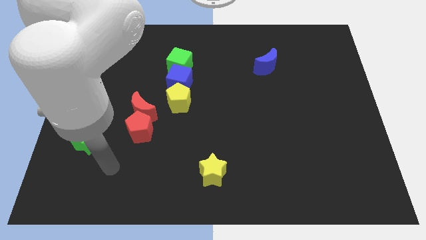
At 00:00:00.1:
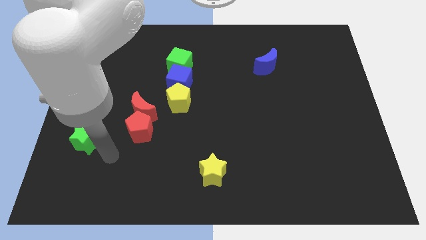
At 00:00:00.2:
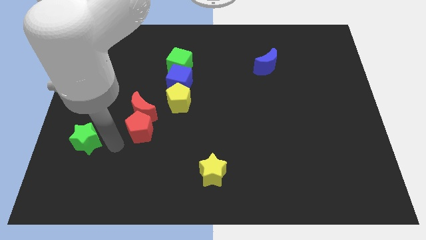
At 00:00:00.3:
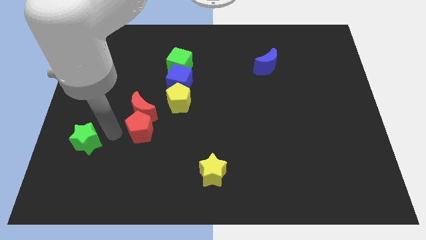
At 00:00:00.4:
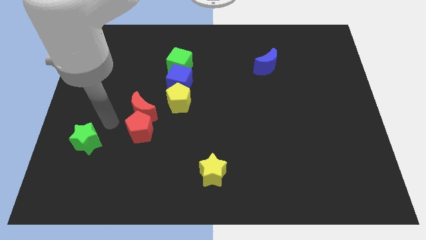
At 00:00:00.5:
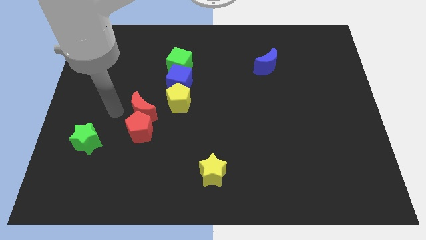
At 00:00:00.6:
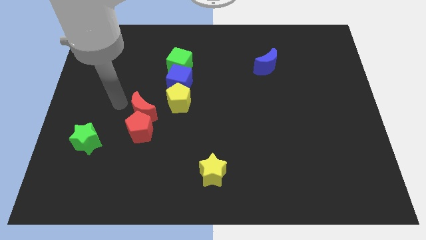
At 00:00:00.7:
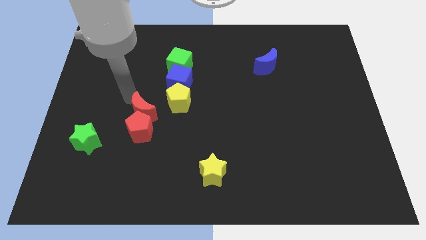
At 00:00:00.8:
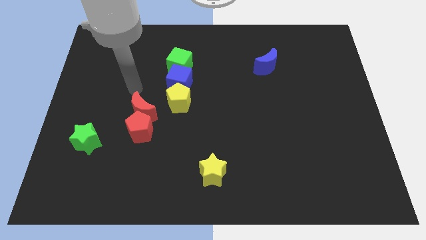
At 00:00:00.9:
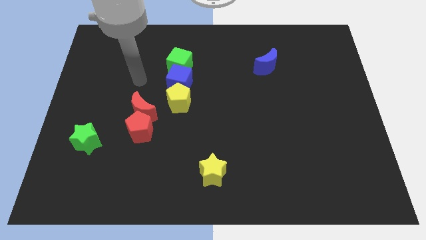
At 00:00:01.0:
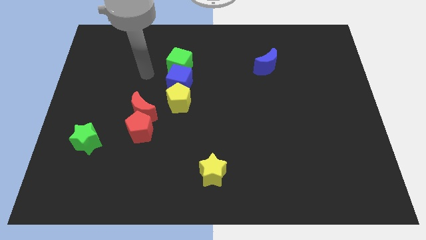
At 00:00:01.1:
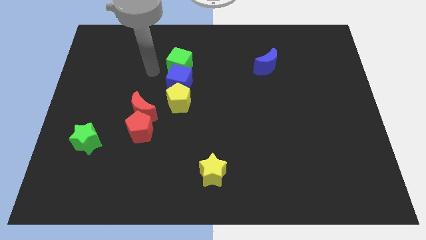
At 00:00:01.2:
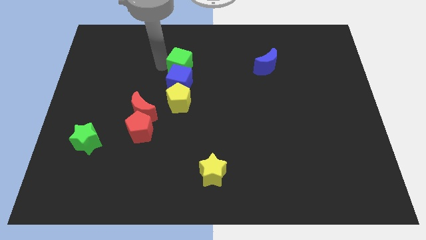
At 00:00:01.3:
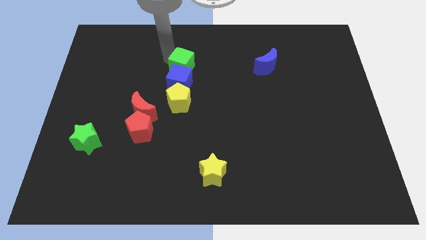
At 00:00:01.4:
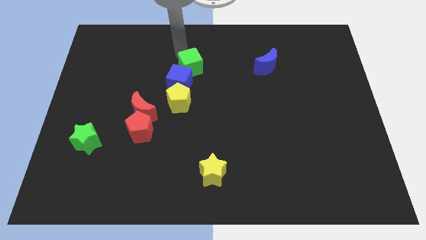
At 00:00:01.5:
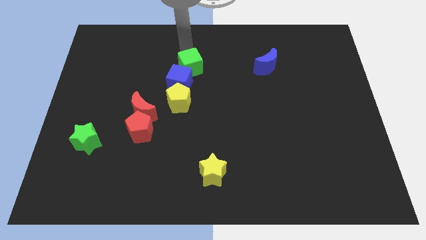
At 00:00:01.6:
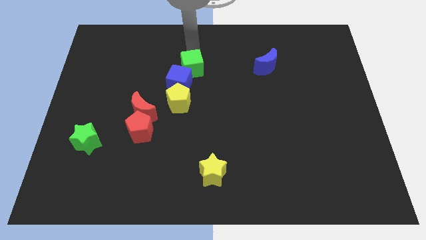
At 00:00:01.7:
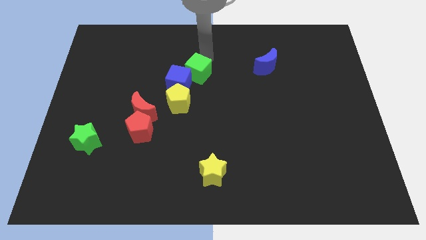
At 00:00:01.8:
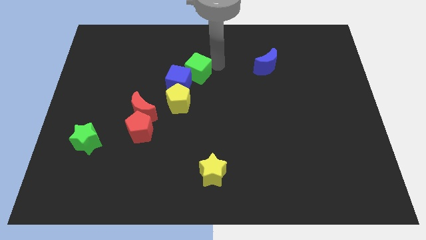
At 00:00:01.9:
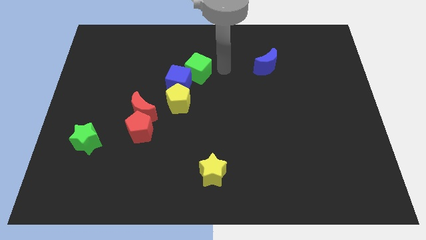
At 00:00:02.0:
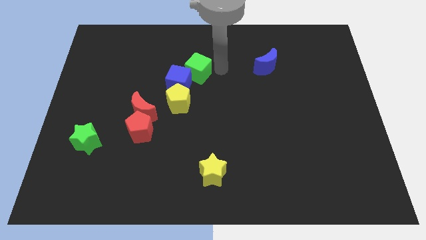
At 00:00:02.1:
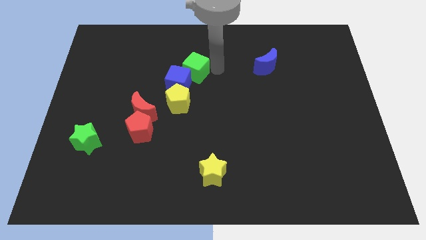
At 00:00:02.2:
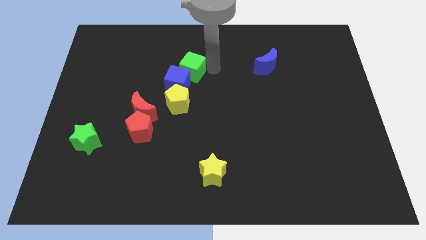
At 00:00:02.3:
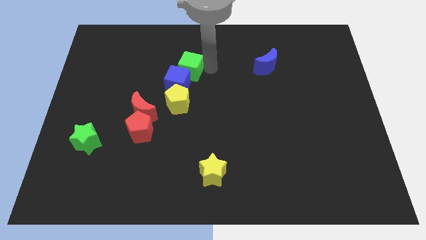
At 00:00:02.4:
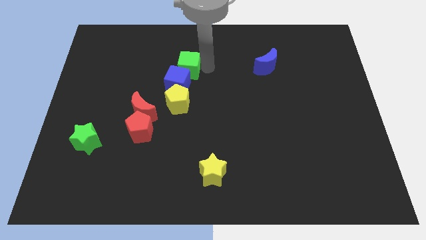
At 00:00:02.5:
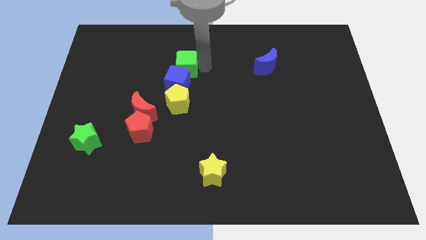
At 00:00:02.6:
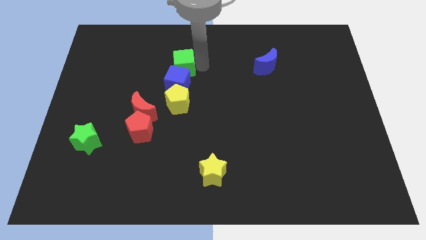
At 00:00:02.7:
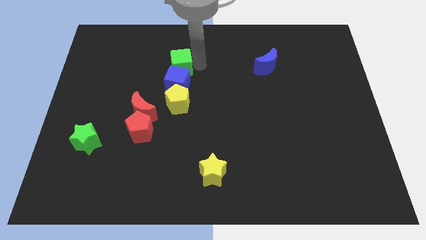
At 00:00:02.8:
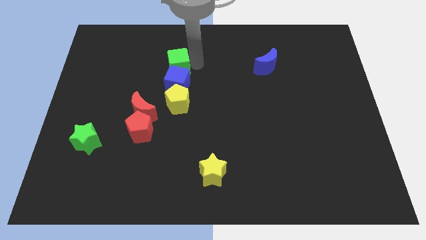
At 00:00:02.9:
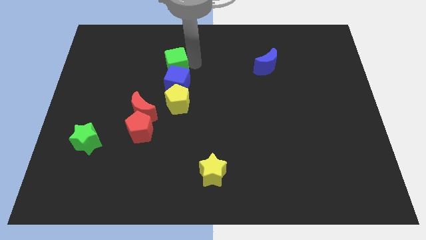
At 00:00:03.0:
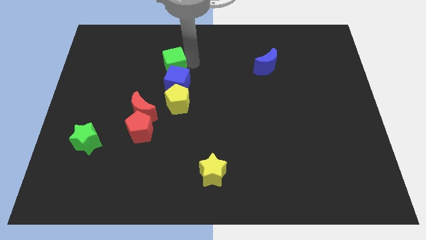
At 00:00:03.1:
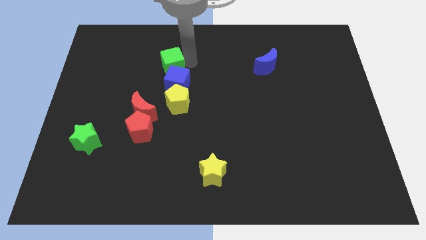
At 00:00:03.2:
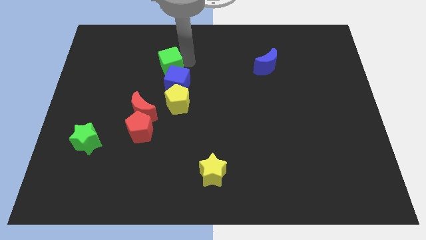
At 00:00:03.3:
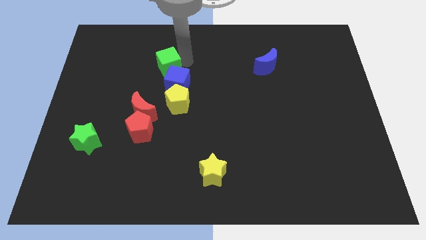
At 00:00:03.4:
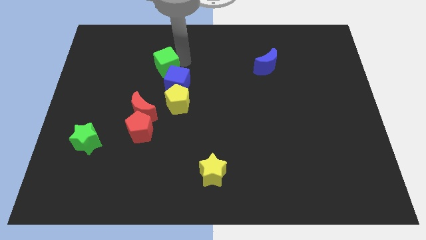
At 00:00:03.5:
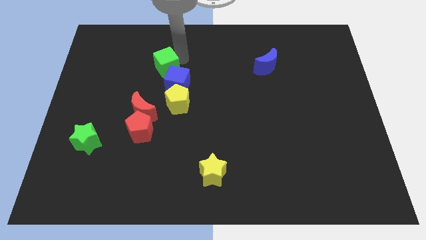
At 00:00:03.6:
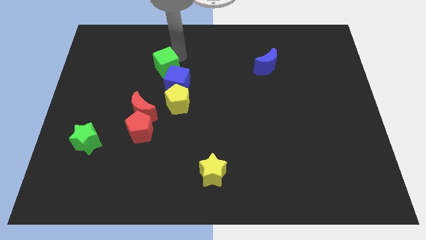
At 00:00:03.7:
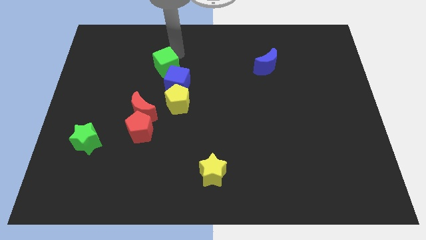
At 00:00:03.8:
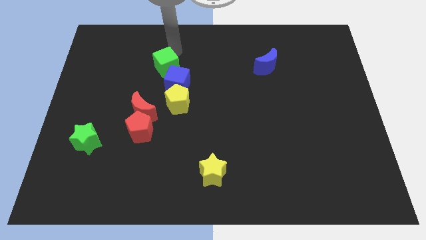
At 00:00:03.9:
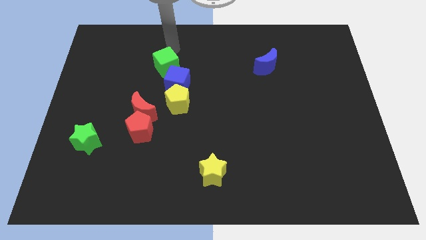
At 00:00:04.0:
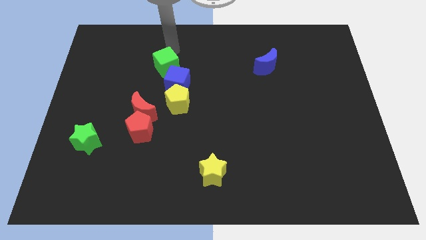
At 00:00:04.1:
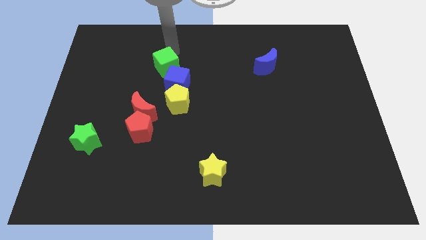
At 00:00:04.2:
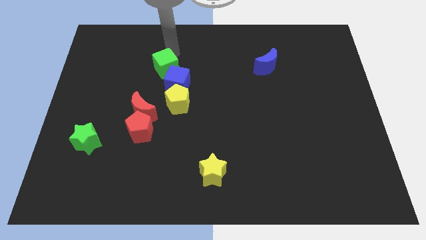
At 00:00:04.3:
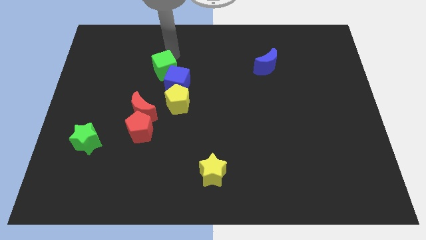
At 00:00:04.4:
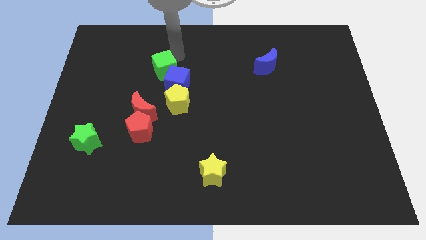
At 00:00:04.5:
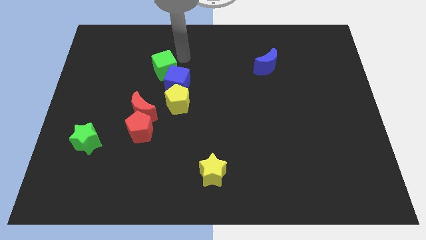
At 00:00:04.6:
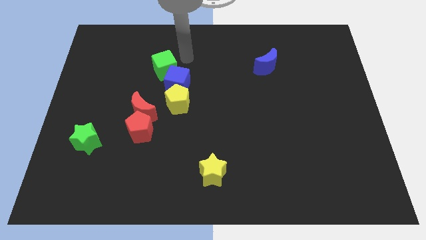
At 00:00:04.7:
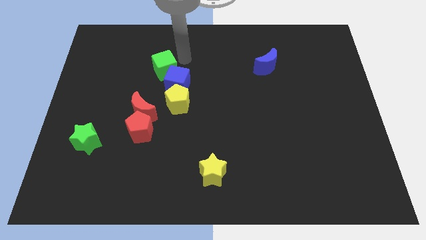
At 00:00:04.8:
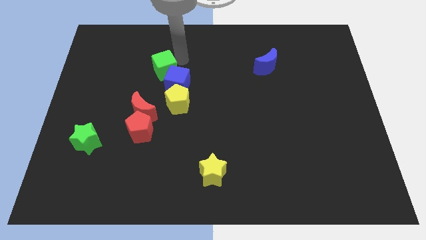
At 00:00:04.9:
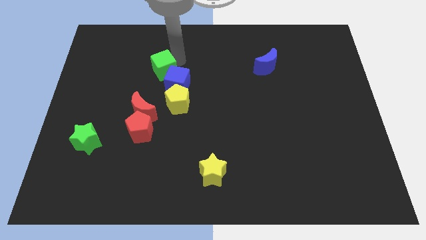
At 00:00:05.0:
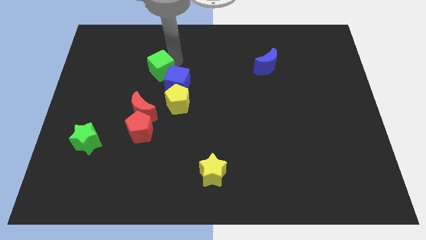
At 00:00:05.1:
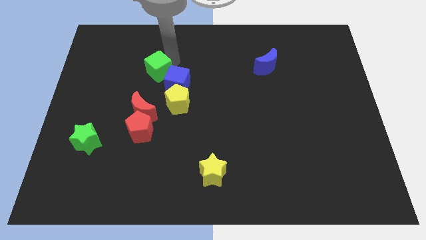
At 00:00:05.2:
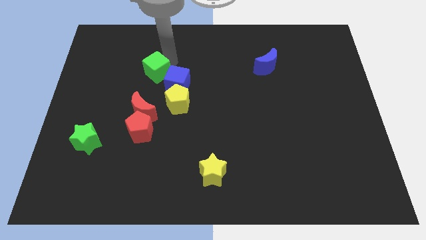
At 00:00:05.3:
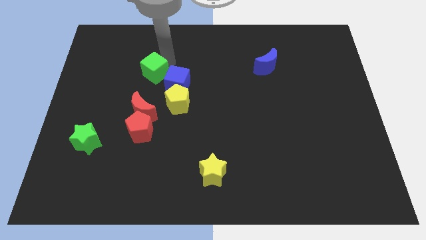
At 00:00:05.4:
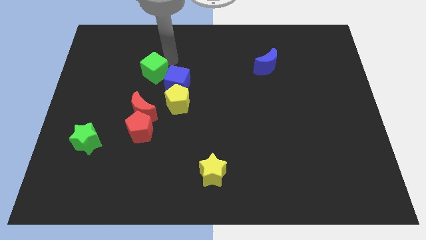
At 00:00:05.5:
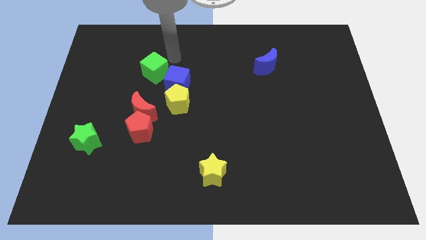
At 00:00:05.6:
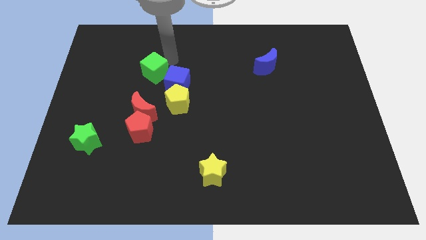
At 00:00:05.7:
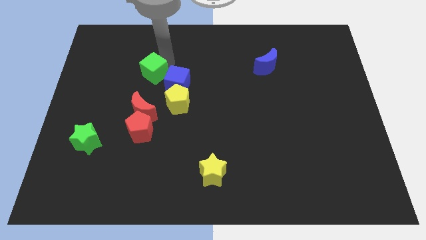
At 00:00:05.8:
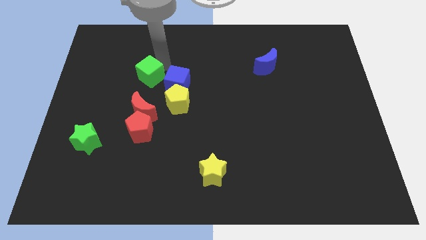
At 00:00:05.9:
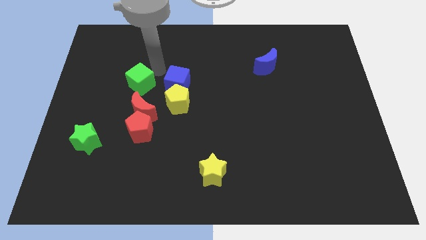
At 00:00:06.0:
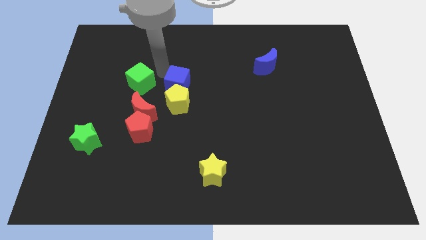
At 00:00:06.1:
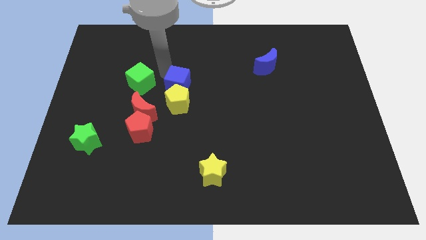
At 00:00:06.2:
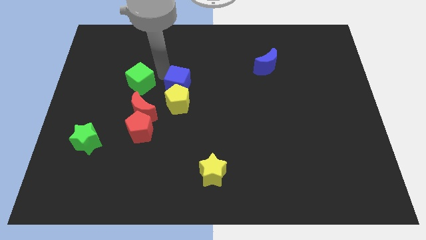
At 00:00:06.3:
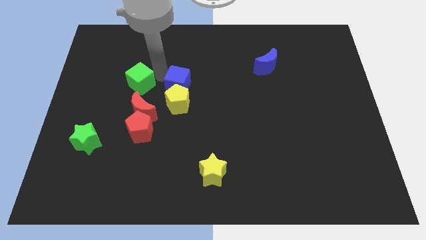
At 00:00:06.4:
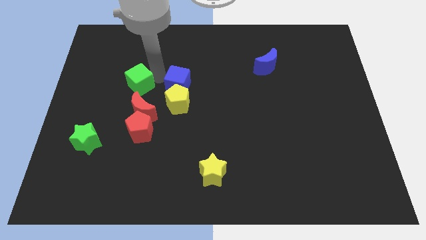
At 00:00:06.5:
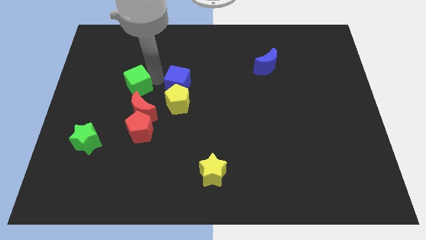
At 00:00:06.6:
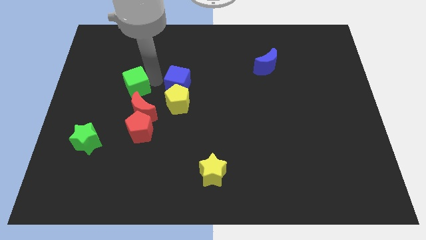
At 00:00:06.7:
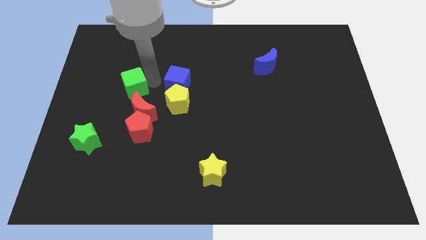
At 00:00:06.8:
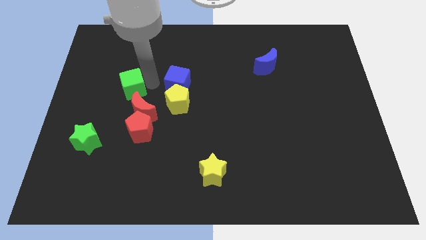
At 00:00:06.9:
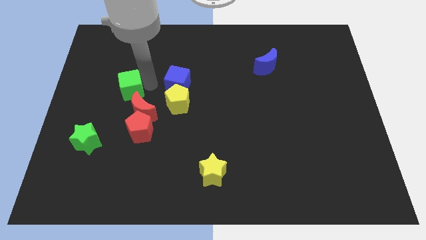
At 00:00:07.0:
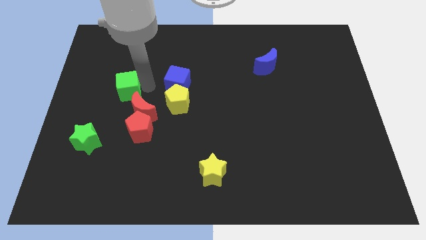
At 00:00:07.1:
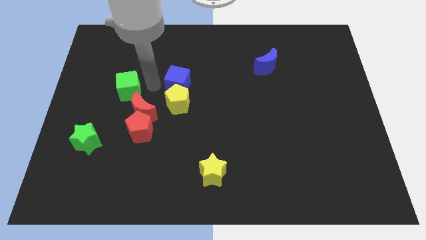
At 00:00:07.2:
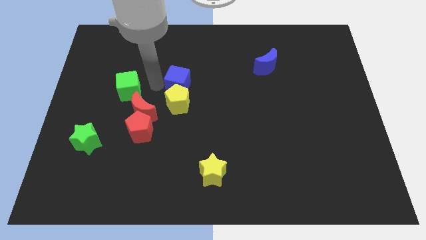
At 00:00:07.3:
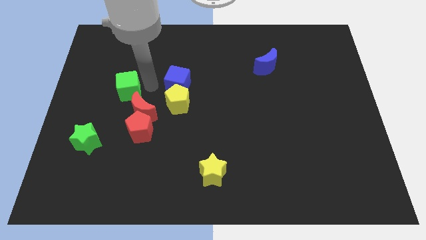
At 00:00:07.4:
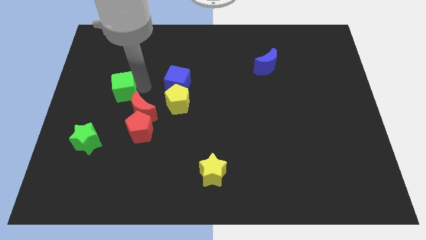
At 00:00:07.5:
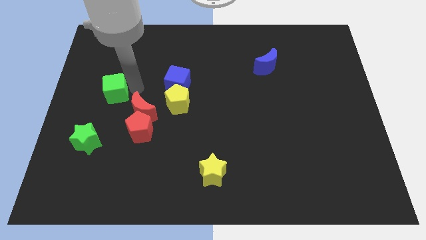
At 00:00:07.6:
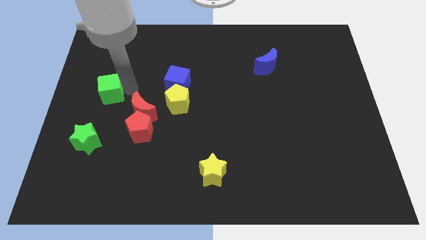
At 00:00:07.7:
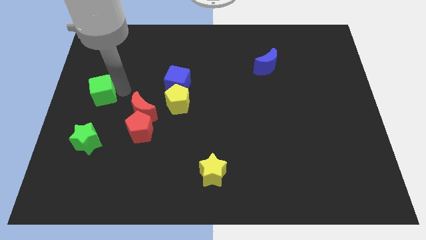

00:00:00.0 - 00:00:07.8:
move the green cube to the left side
